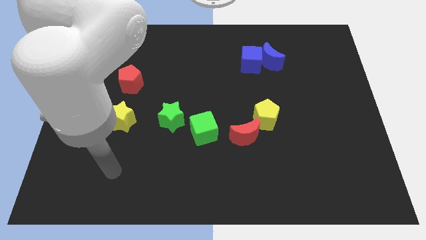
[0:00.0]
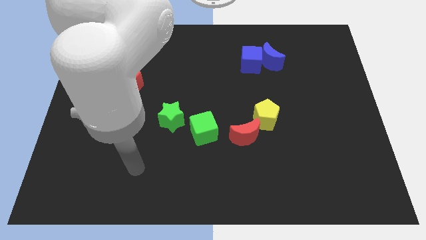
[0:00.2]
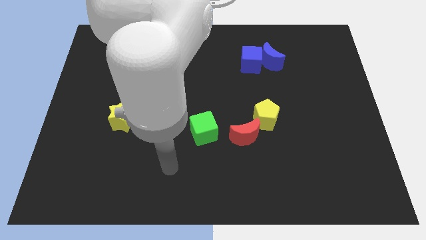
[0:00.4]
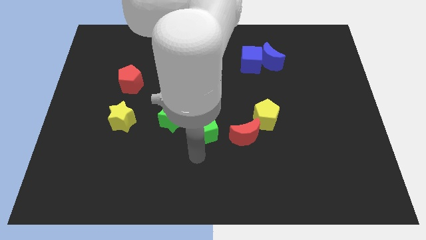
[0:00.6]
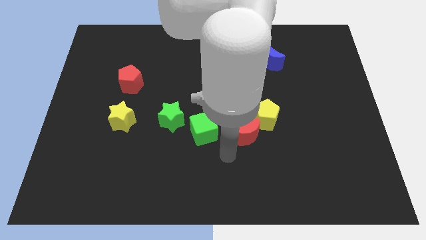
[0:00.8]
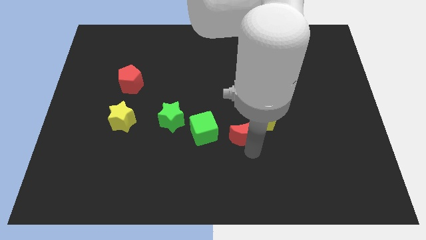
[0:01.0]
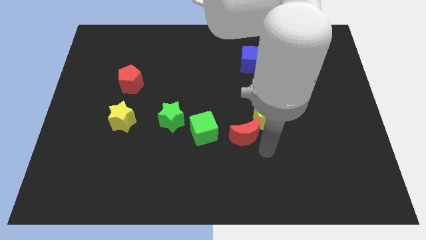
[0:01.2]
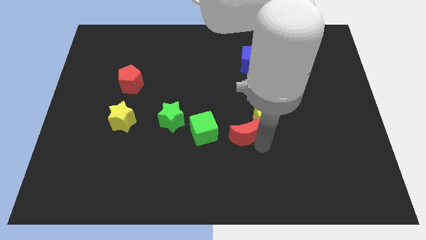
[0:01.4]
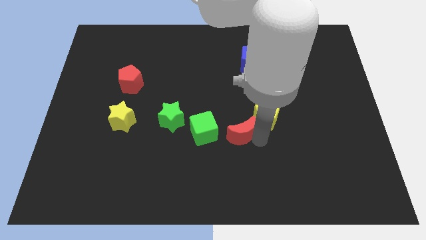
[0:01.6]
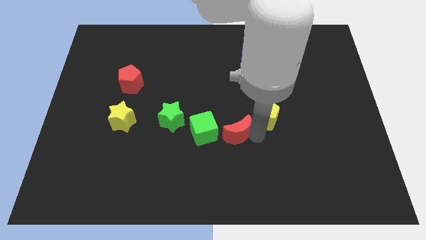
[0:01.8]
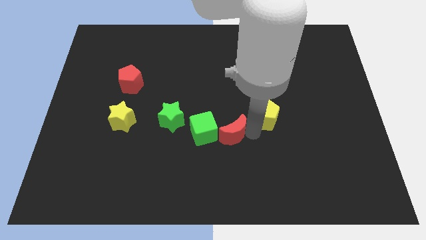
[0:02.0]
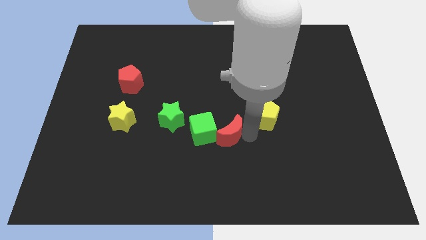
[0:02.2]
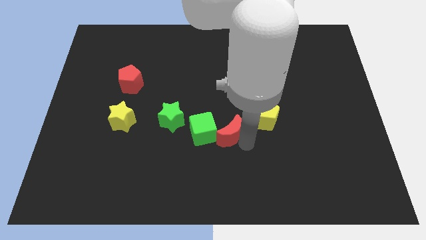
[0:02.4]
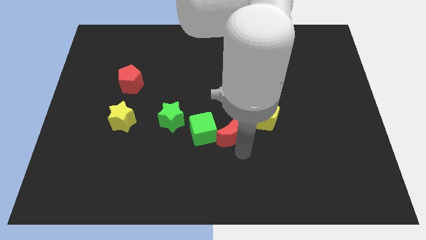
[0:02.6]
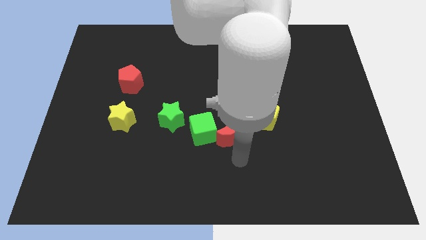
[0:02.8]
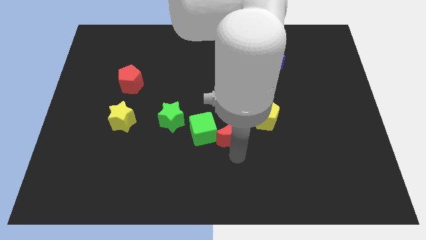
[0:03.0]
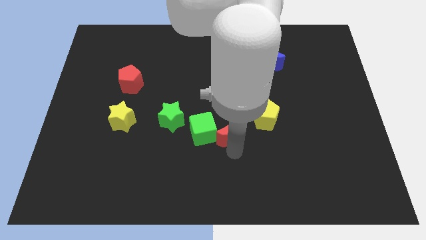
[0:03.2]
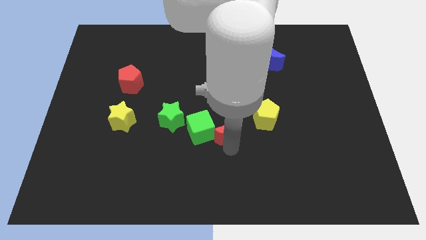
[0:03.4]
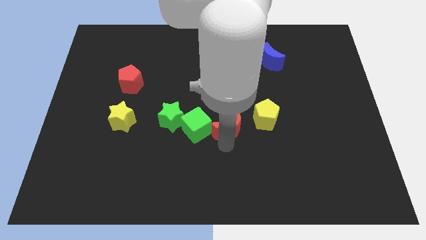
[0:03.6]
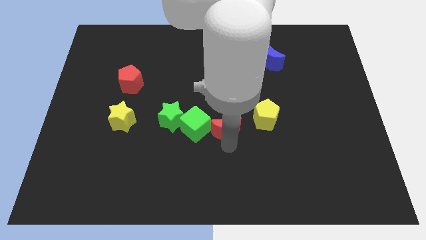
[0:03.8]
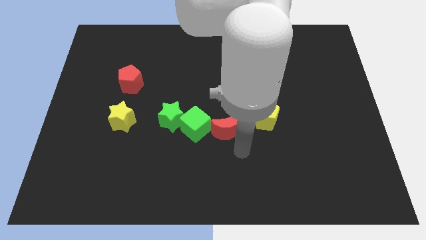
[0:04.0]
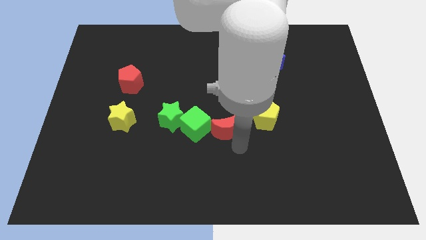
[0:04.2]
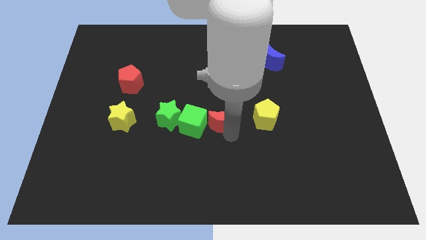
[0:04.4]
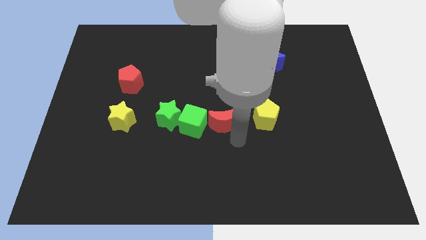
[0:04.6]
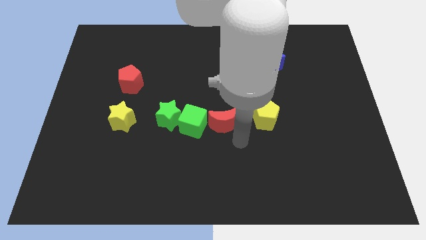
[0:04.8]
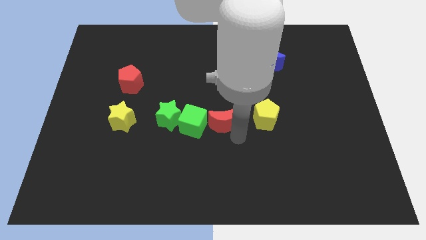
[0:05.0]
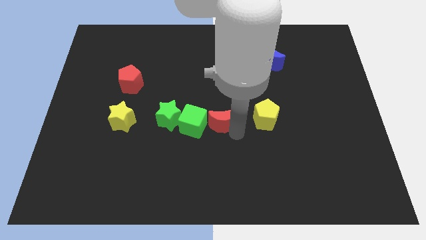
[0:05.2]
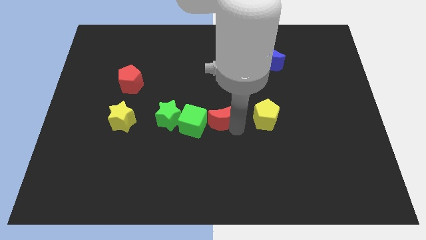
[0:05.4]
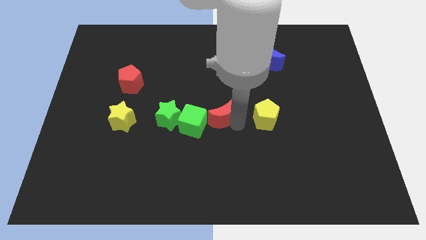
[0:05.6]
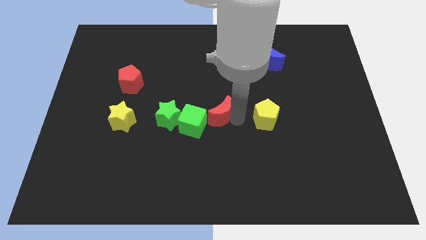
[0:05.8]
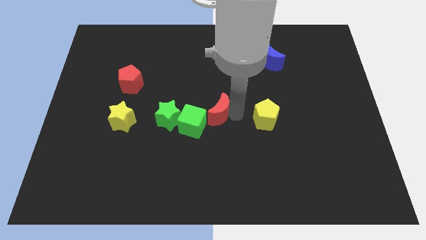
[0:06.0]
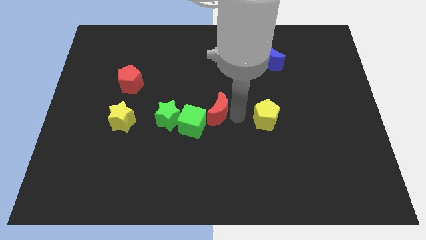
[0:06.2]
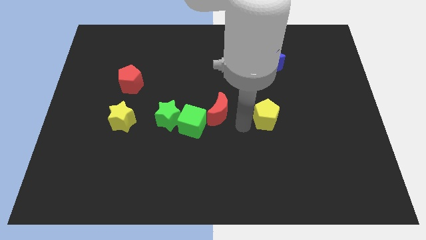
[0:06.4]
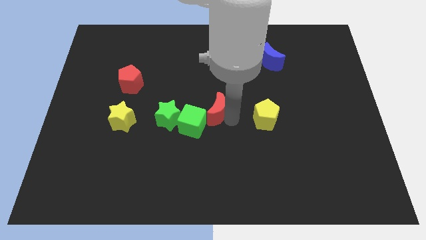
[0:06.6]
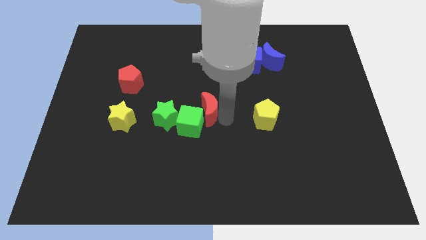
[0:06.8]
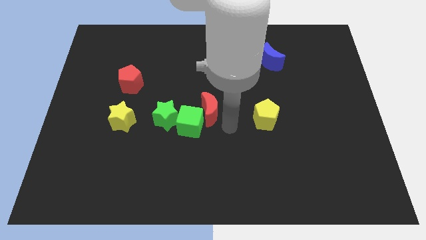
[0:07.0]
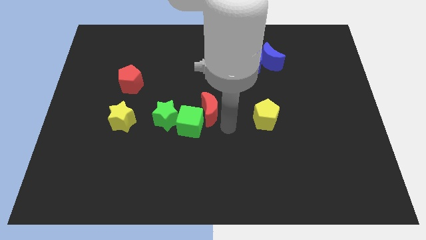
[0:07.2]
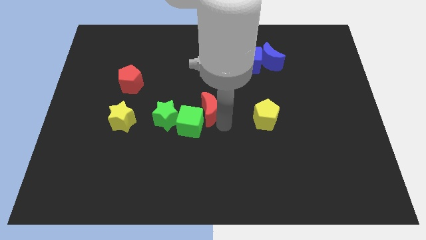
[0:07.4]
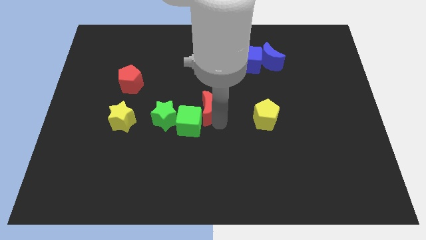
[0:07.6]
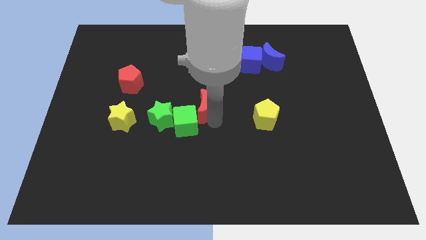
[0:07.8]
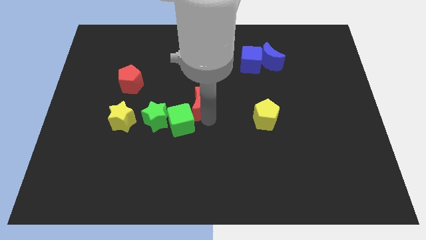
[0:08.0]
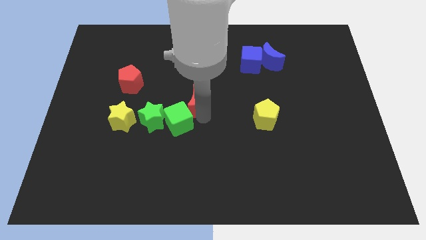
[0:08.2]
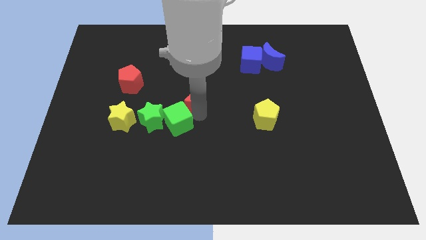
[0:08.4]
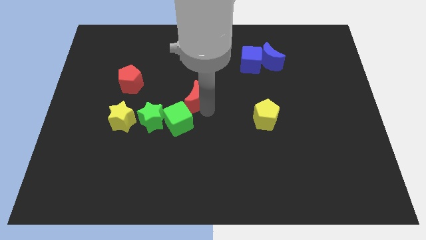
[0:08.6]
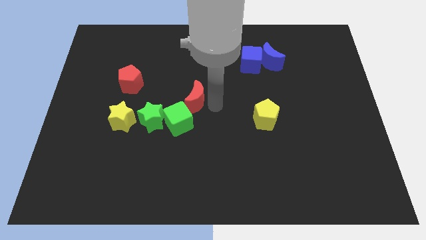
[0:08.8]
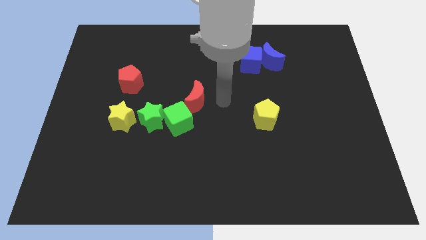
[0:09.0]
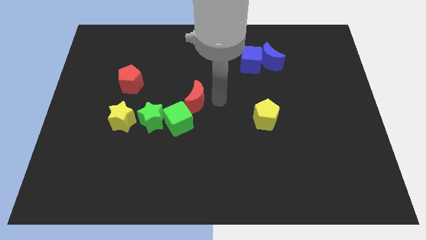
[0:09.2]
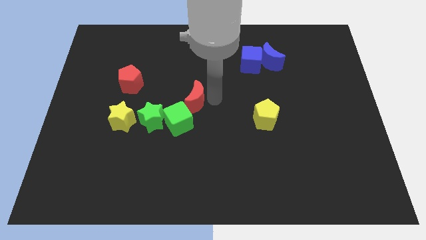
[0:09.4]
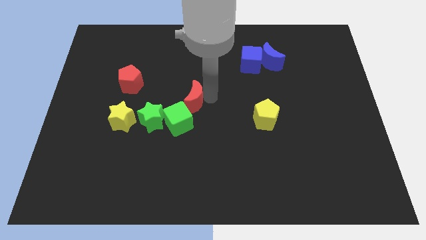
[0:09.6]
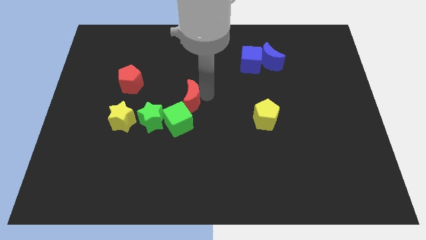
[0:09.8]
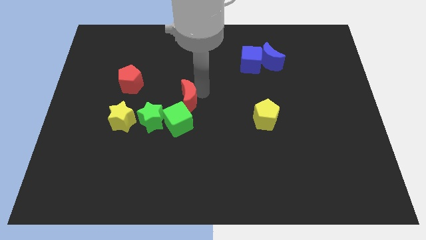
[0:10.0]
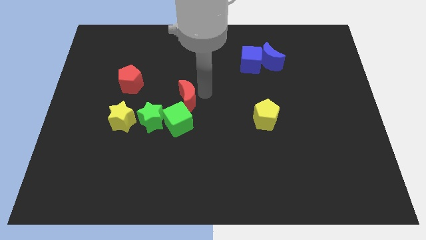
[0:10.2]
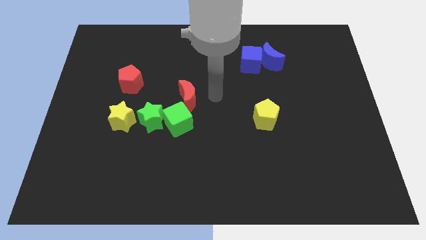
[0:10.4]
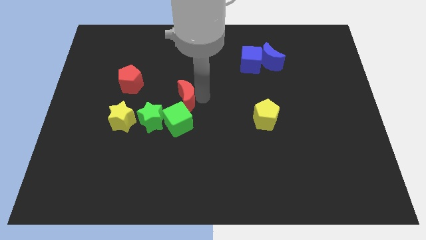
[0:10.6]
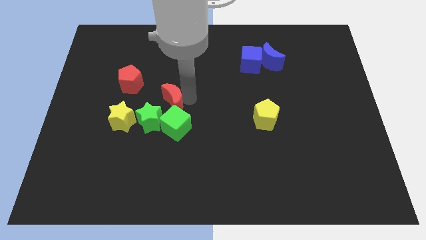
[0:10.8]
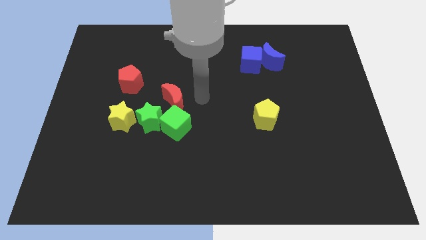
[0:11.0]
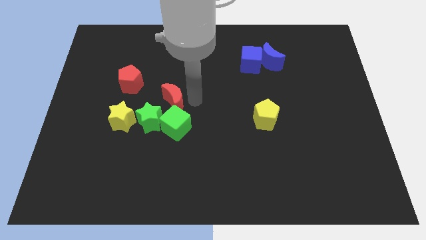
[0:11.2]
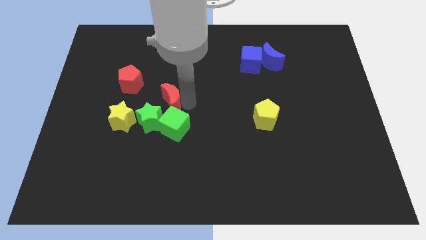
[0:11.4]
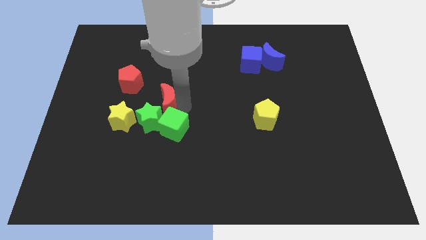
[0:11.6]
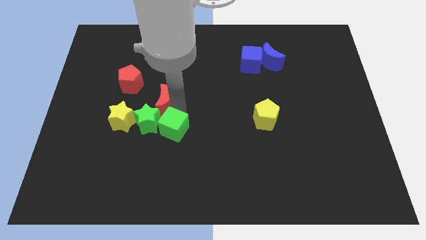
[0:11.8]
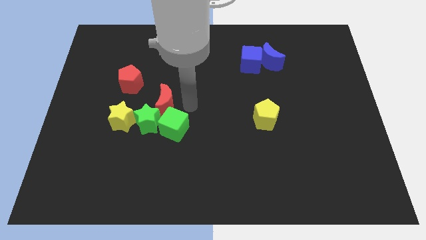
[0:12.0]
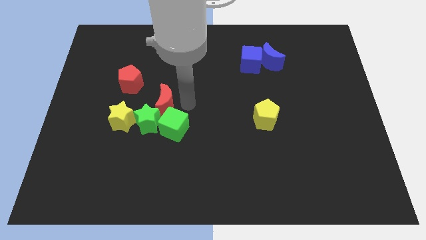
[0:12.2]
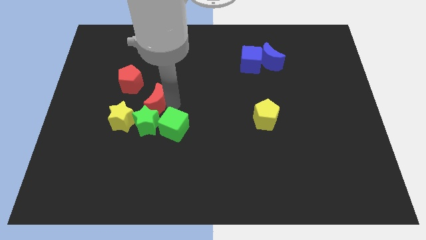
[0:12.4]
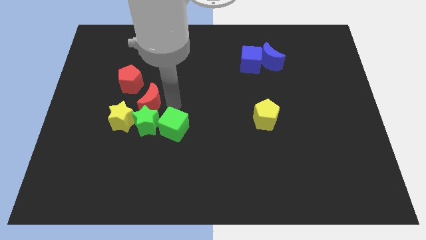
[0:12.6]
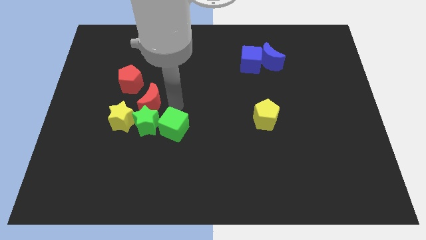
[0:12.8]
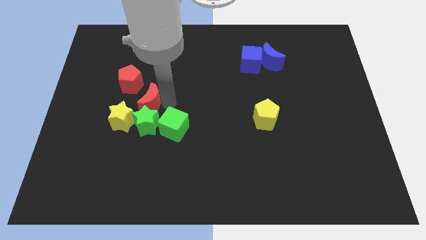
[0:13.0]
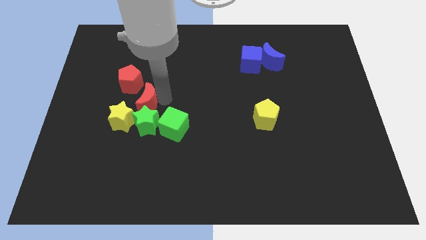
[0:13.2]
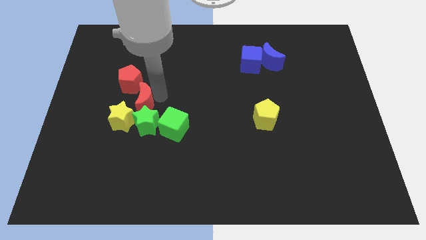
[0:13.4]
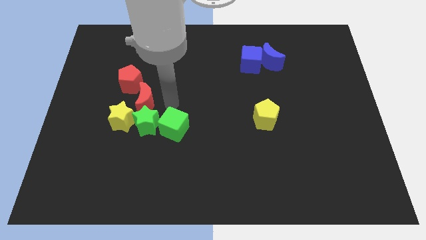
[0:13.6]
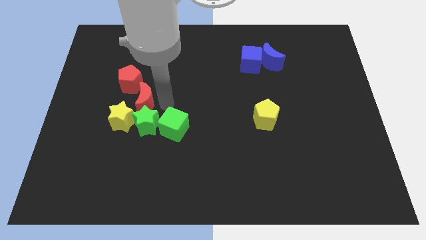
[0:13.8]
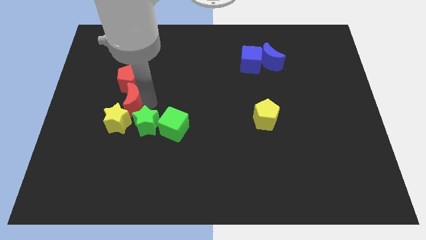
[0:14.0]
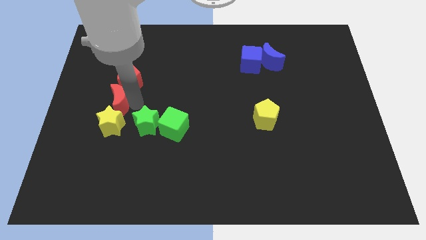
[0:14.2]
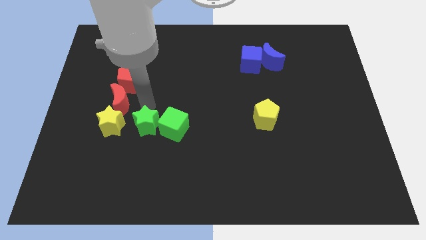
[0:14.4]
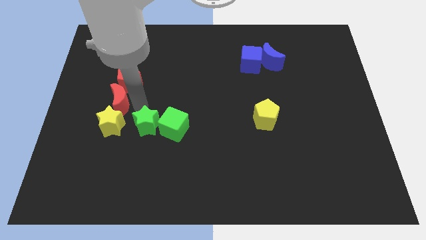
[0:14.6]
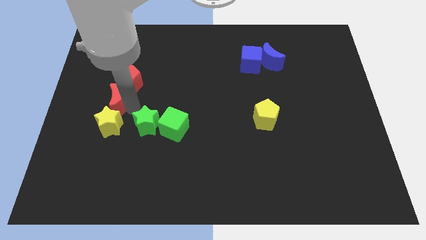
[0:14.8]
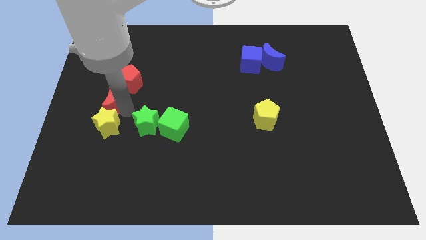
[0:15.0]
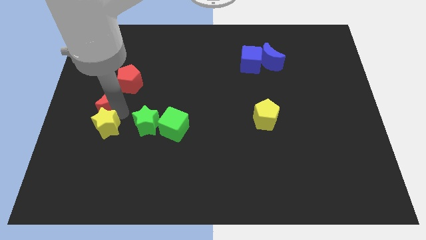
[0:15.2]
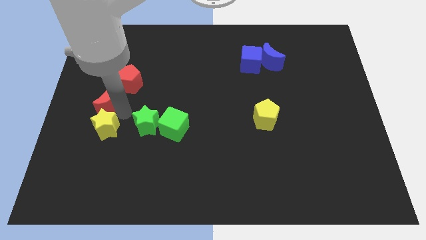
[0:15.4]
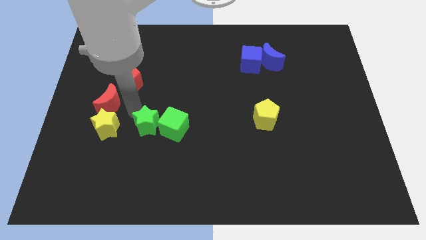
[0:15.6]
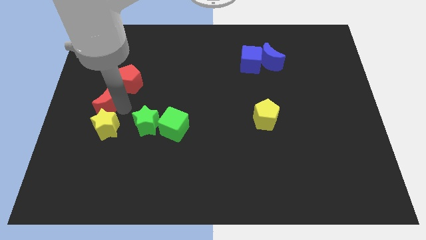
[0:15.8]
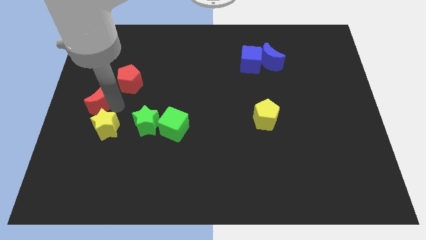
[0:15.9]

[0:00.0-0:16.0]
push the red moon to the left side
